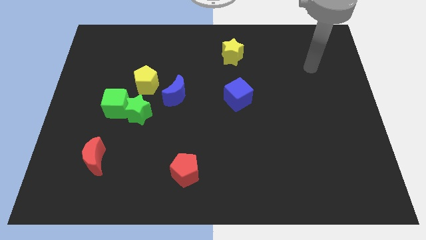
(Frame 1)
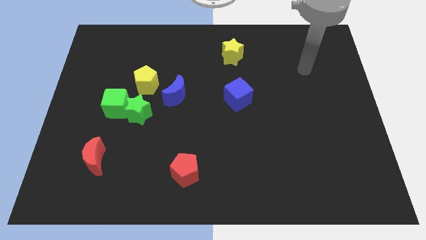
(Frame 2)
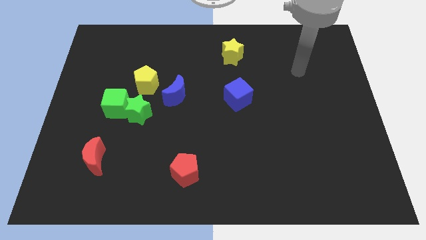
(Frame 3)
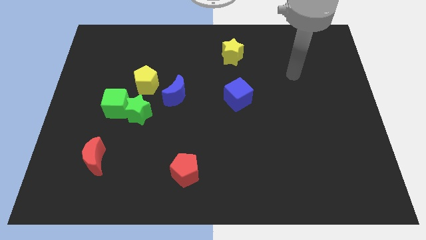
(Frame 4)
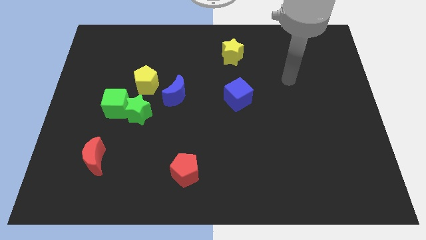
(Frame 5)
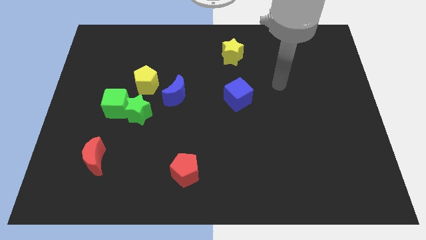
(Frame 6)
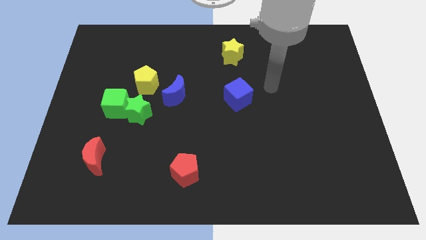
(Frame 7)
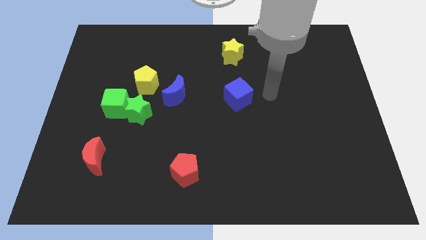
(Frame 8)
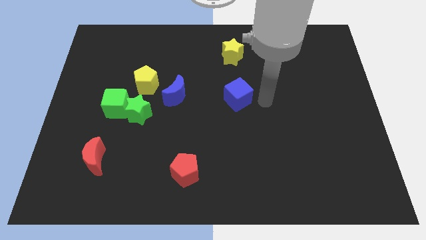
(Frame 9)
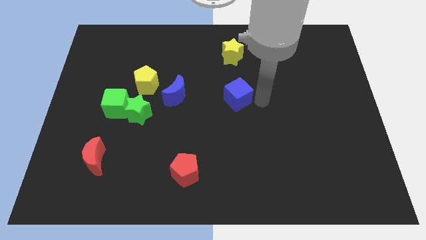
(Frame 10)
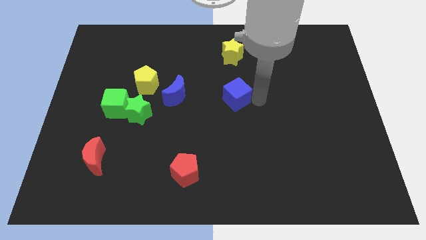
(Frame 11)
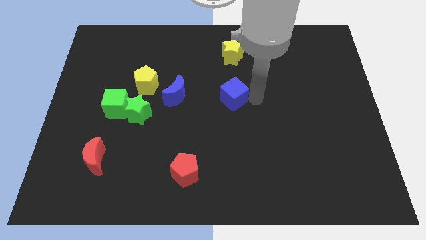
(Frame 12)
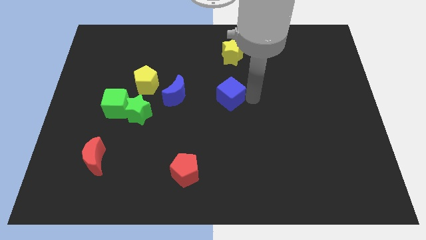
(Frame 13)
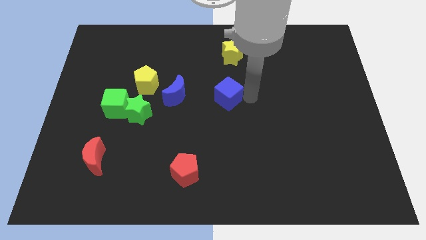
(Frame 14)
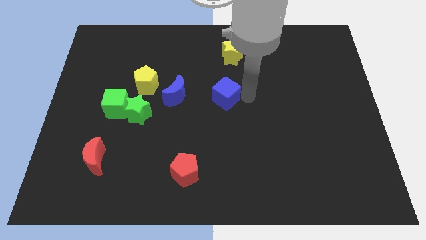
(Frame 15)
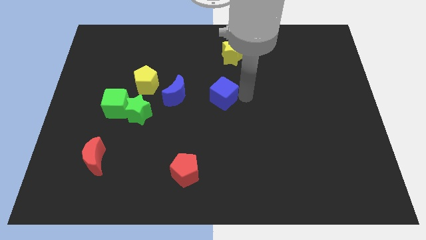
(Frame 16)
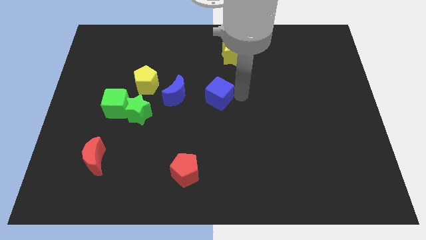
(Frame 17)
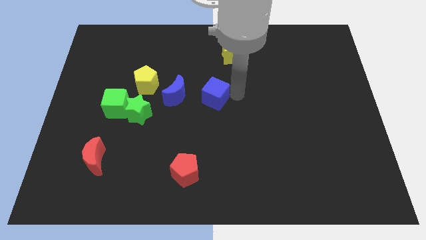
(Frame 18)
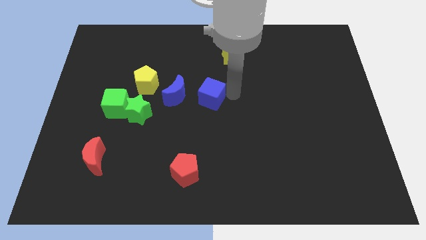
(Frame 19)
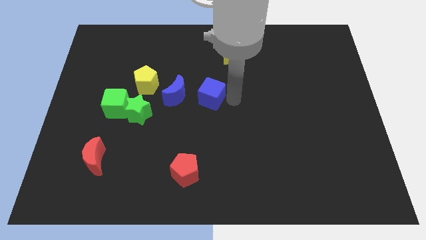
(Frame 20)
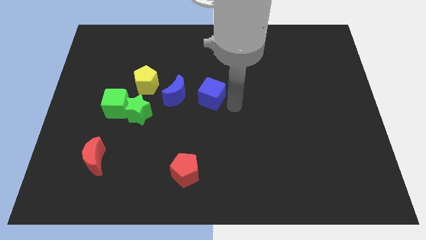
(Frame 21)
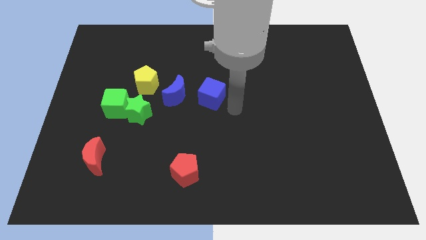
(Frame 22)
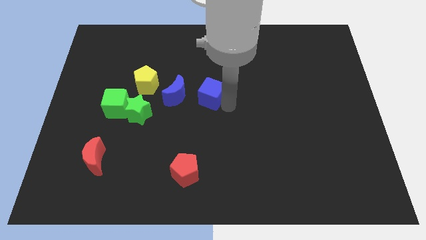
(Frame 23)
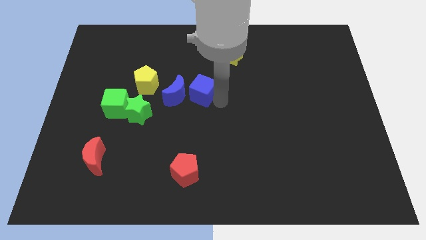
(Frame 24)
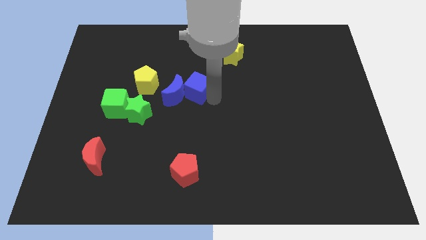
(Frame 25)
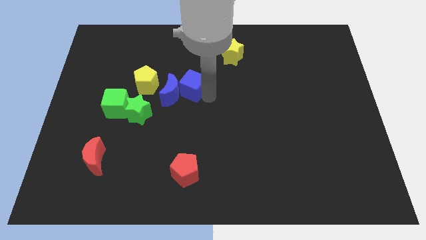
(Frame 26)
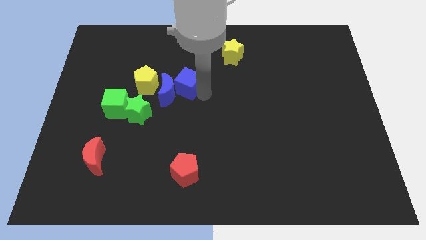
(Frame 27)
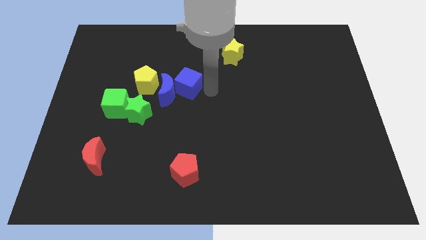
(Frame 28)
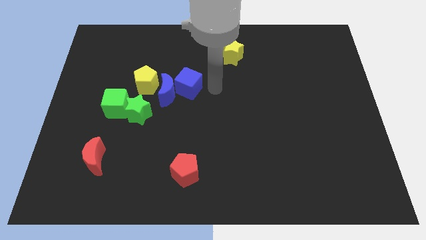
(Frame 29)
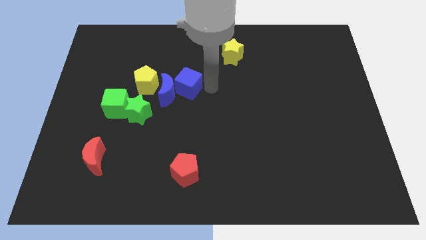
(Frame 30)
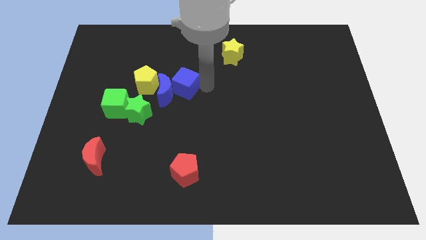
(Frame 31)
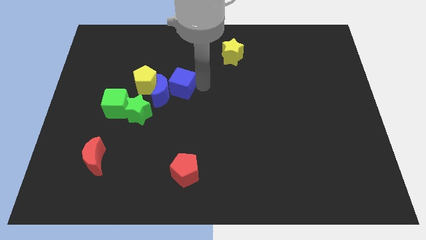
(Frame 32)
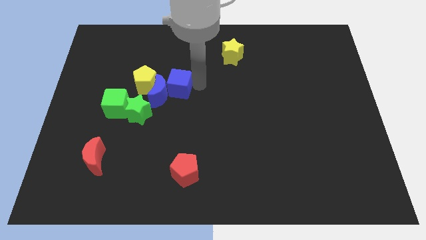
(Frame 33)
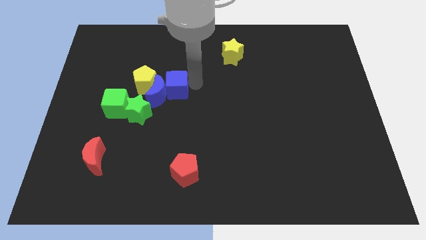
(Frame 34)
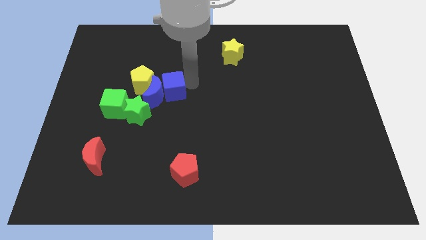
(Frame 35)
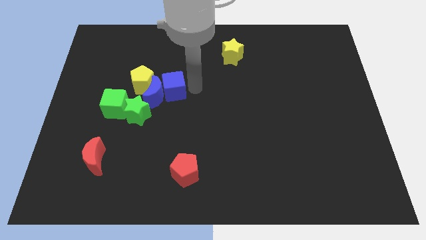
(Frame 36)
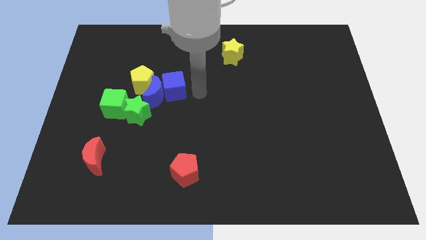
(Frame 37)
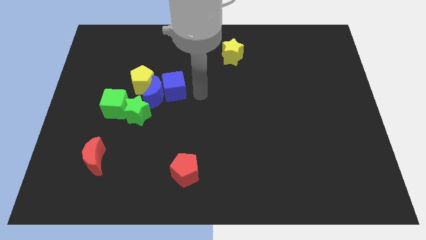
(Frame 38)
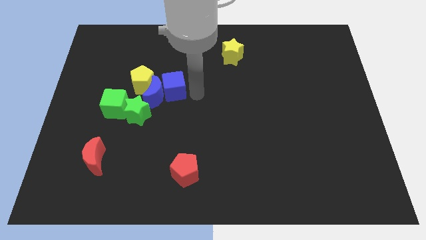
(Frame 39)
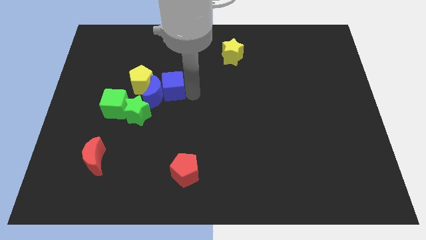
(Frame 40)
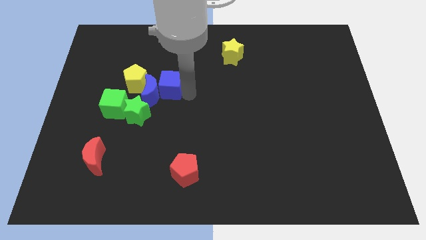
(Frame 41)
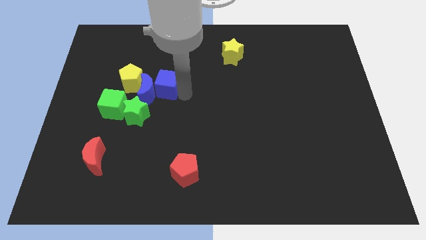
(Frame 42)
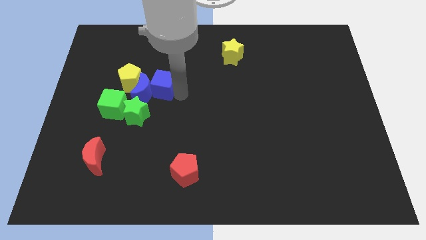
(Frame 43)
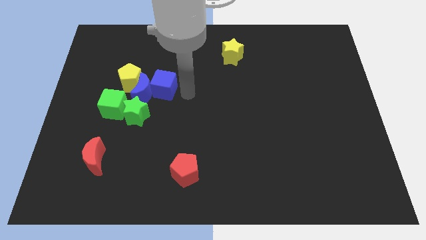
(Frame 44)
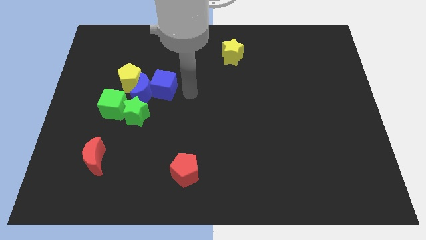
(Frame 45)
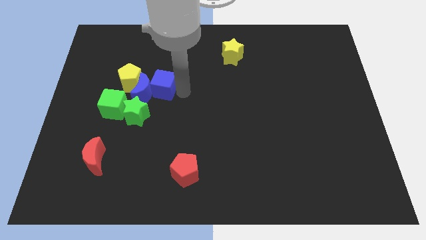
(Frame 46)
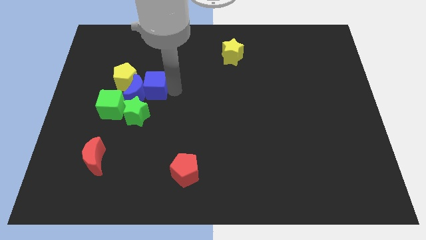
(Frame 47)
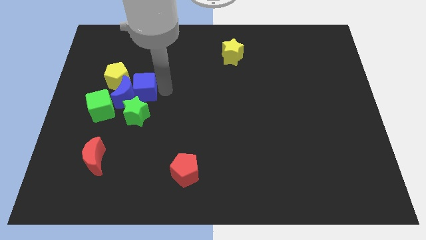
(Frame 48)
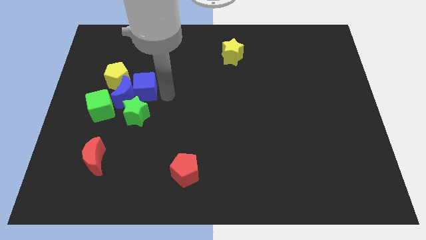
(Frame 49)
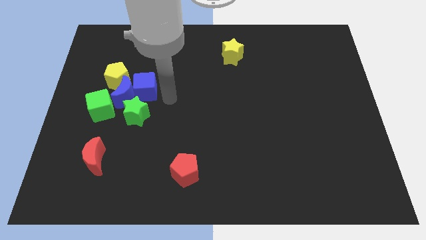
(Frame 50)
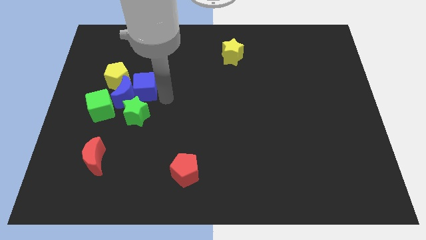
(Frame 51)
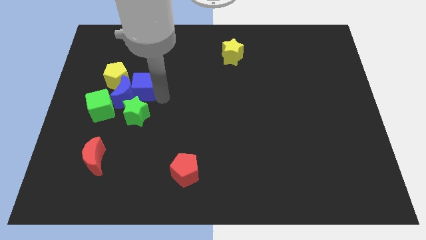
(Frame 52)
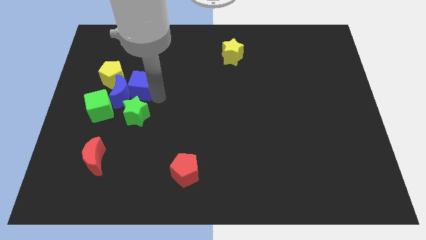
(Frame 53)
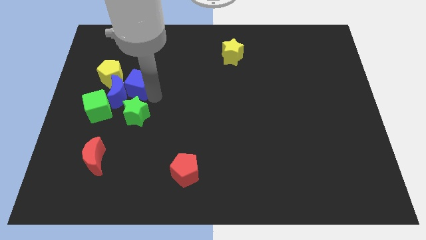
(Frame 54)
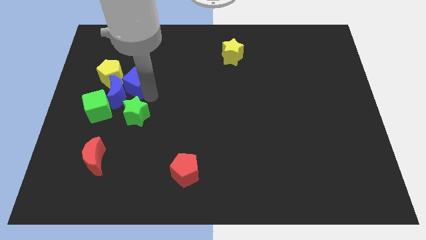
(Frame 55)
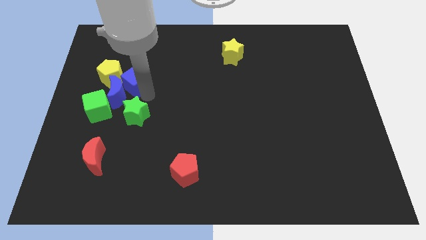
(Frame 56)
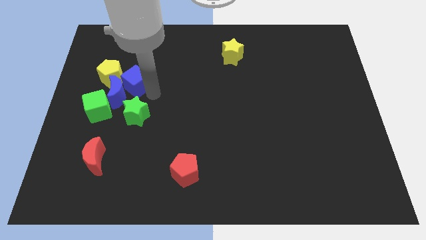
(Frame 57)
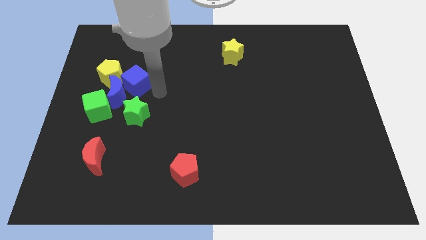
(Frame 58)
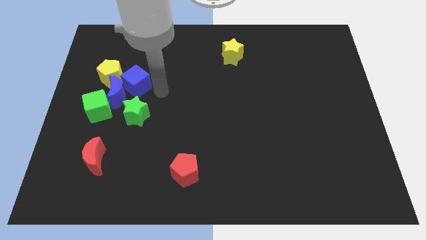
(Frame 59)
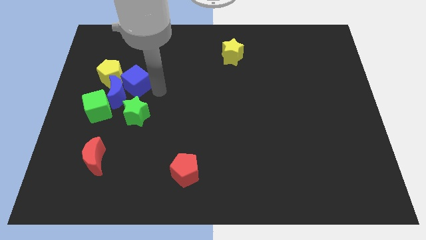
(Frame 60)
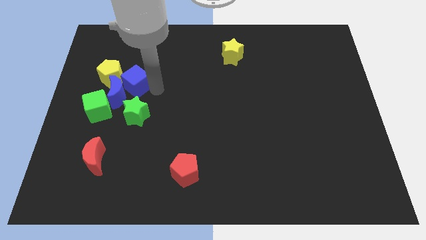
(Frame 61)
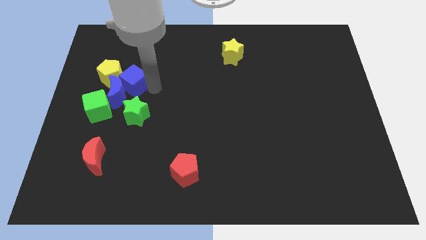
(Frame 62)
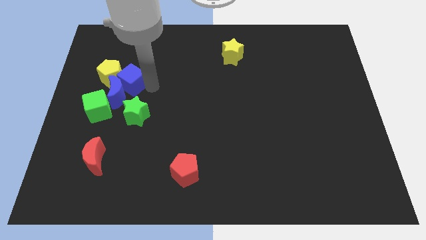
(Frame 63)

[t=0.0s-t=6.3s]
push the blue cube close to the yellow pentagon

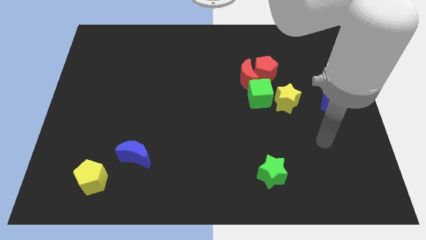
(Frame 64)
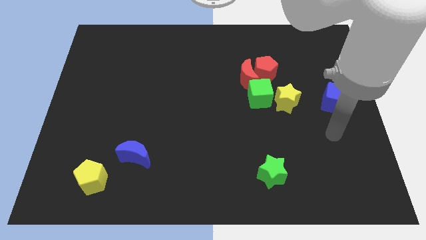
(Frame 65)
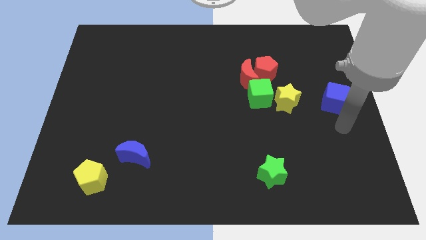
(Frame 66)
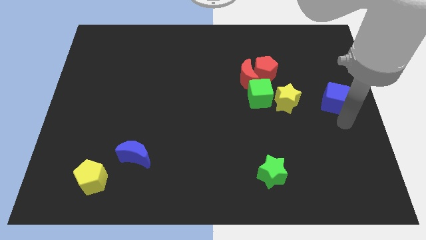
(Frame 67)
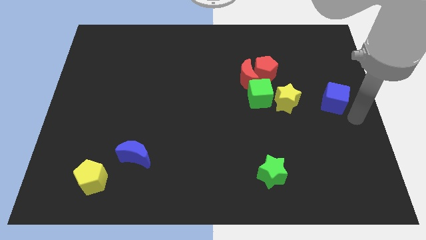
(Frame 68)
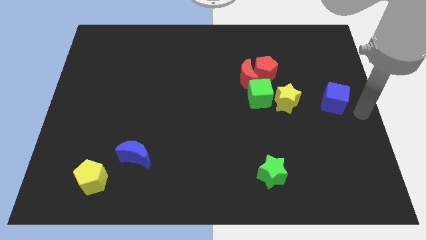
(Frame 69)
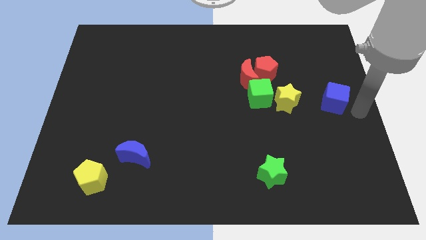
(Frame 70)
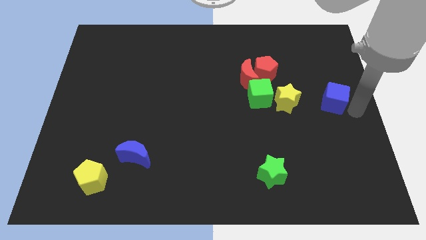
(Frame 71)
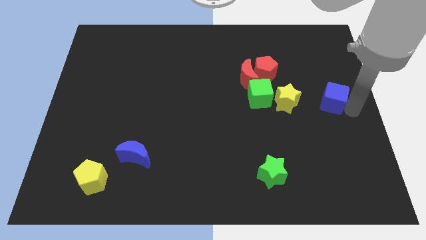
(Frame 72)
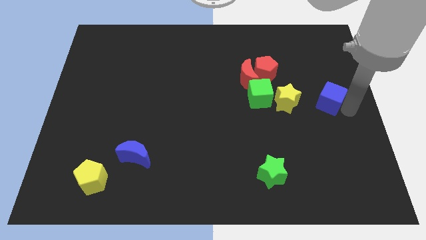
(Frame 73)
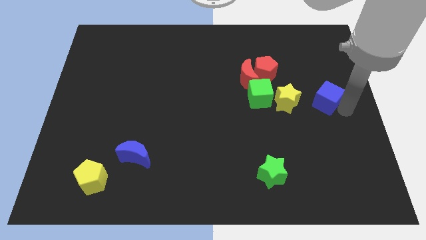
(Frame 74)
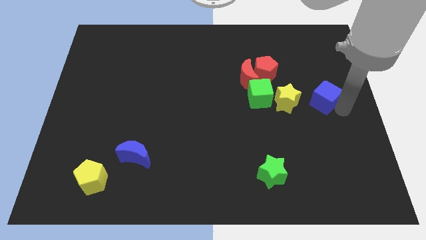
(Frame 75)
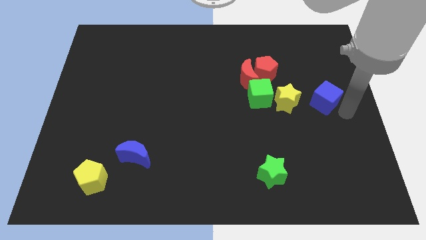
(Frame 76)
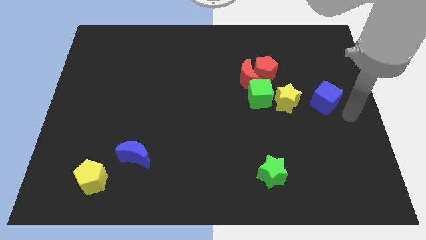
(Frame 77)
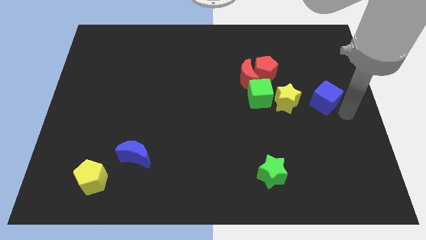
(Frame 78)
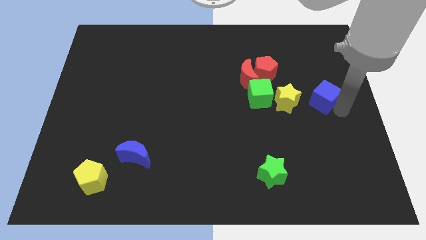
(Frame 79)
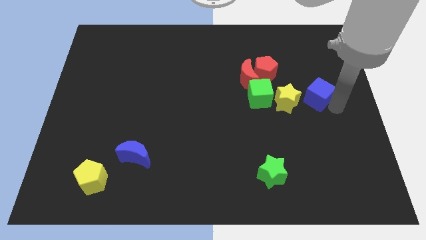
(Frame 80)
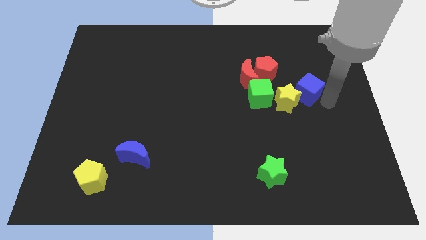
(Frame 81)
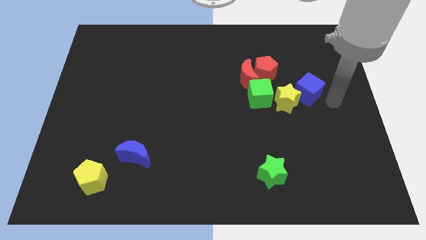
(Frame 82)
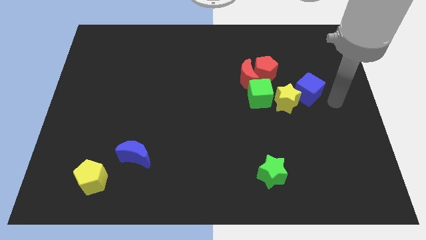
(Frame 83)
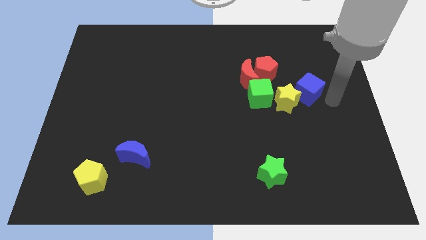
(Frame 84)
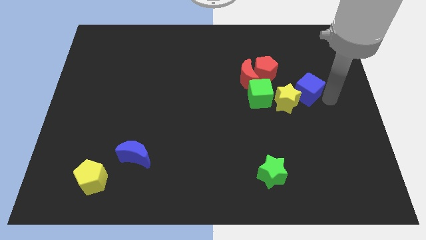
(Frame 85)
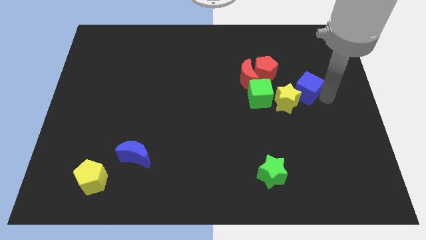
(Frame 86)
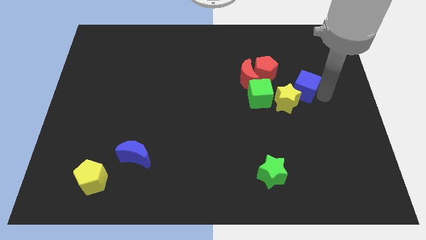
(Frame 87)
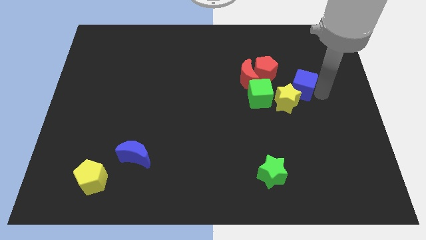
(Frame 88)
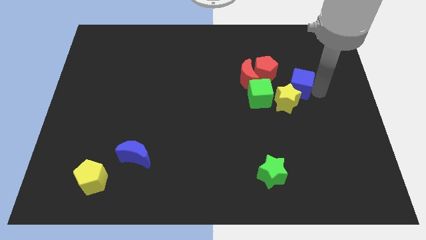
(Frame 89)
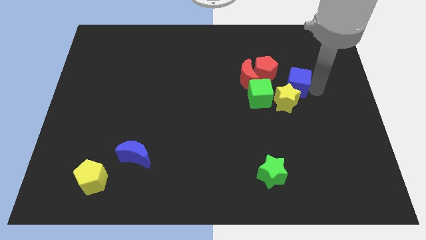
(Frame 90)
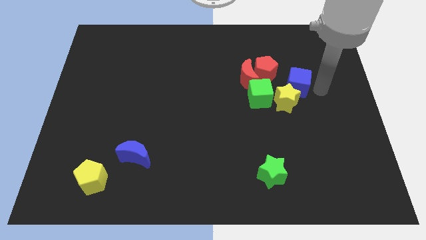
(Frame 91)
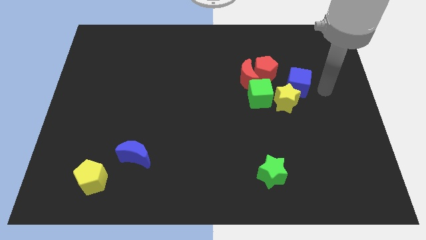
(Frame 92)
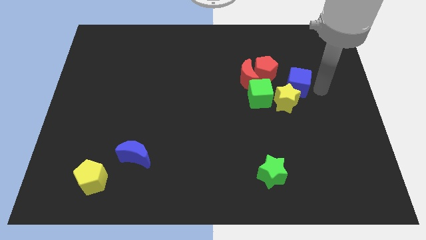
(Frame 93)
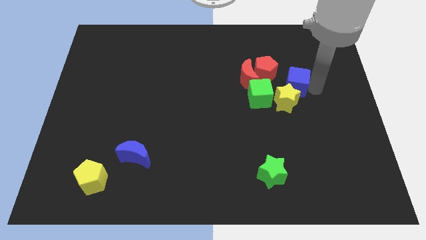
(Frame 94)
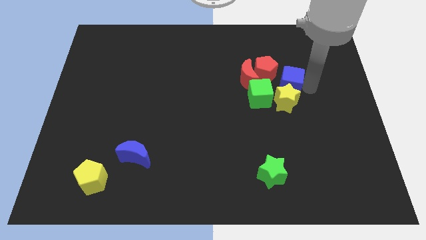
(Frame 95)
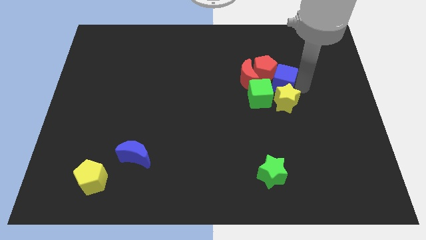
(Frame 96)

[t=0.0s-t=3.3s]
put the blue cube close to the red pentagon
